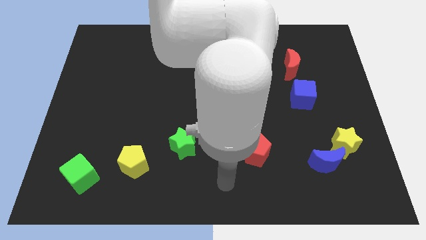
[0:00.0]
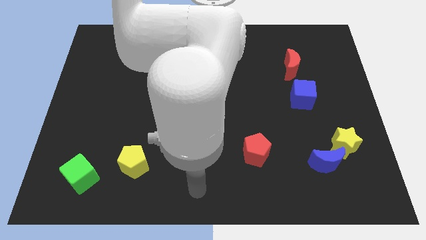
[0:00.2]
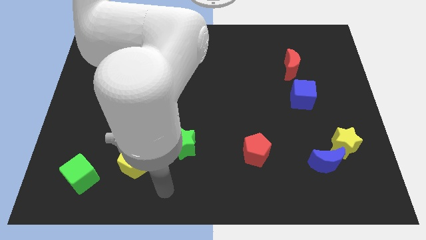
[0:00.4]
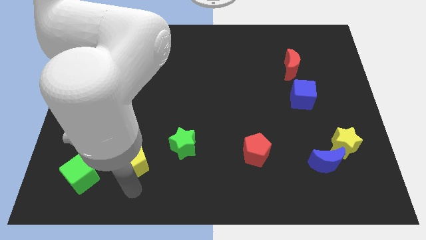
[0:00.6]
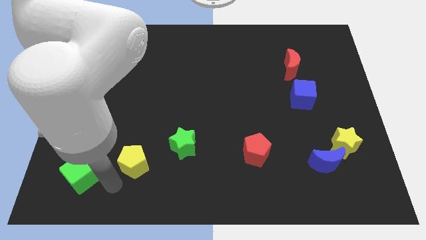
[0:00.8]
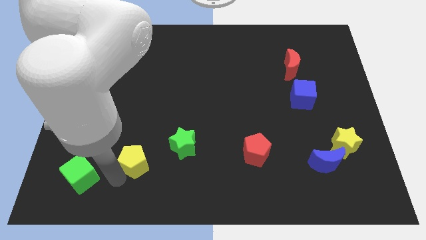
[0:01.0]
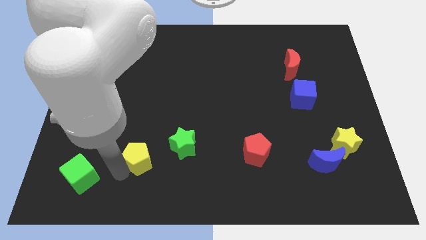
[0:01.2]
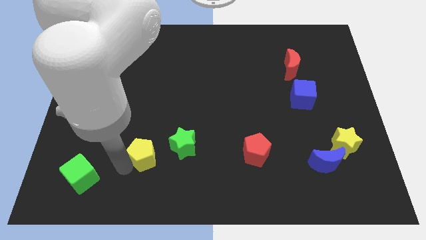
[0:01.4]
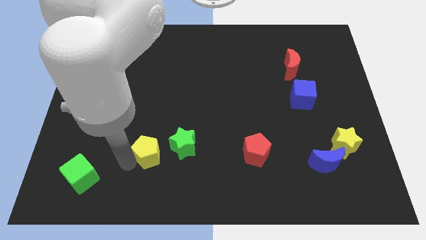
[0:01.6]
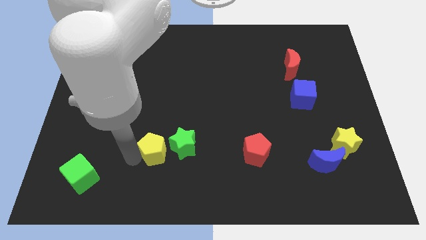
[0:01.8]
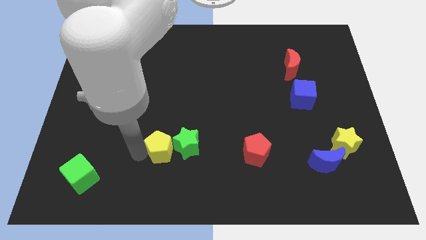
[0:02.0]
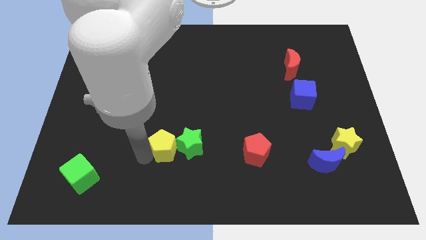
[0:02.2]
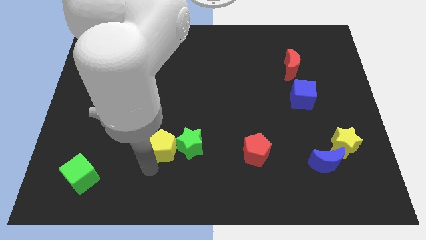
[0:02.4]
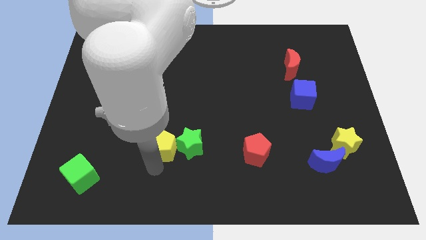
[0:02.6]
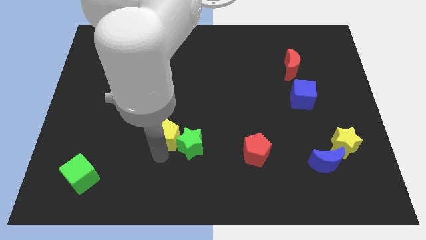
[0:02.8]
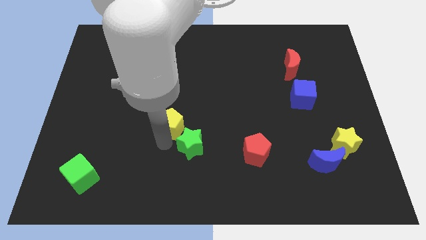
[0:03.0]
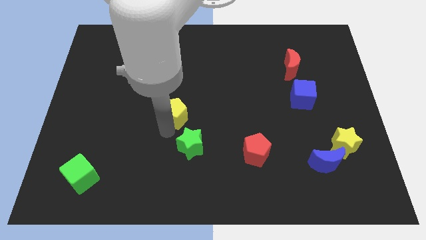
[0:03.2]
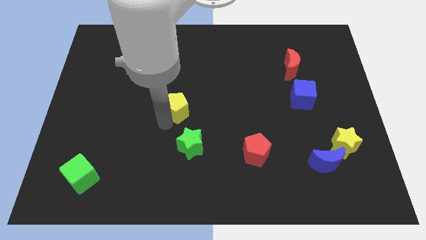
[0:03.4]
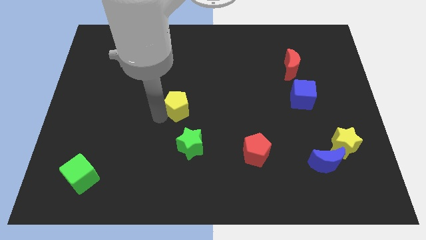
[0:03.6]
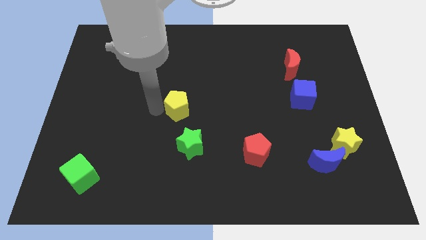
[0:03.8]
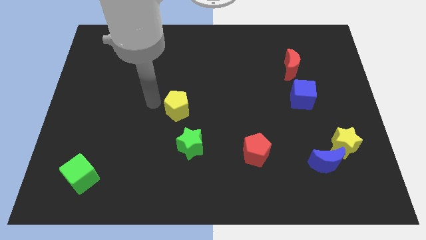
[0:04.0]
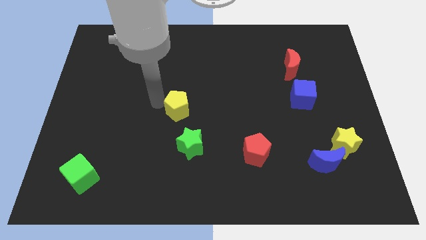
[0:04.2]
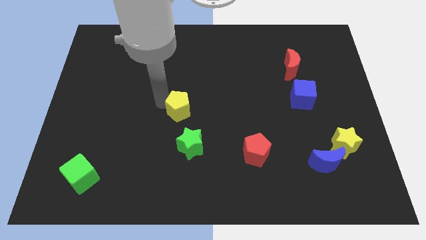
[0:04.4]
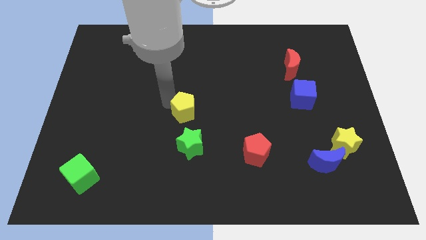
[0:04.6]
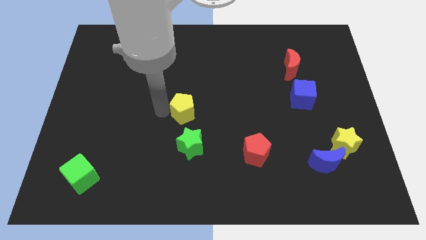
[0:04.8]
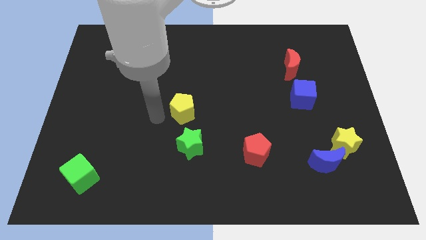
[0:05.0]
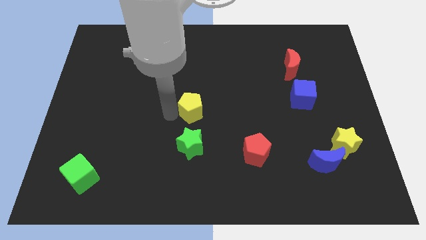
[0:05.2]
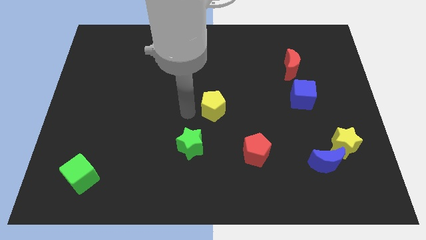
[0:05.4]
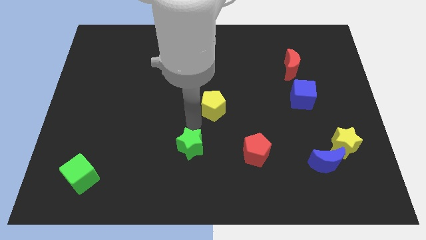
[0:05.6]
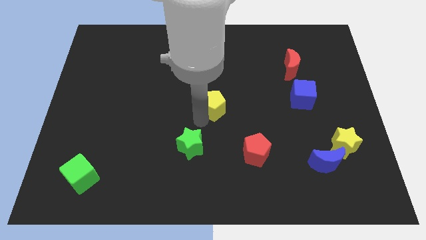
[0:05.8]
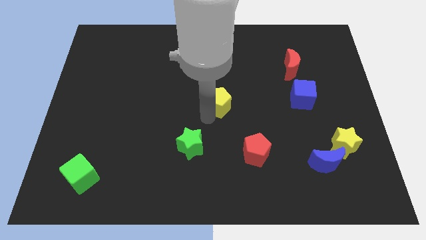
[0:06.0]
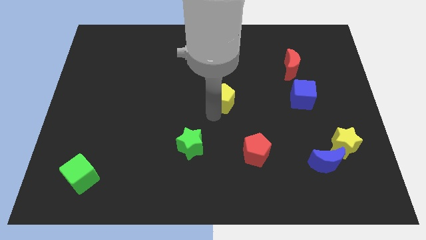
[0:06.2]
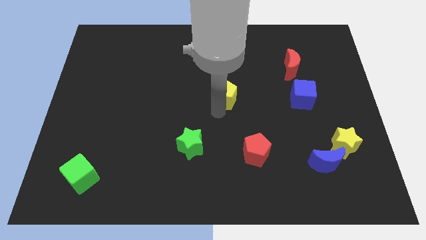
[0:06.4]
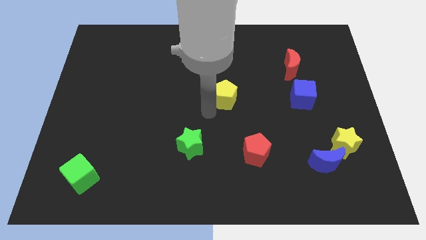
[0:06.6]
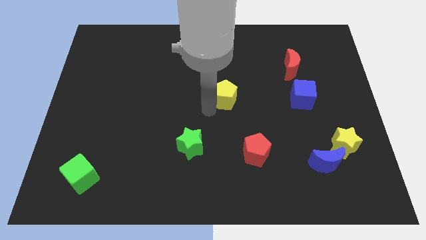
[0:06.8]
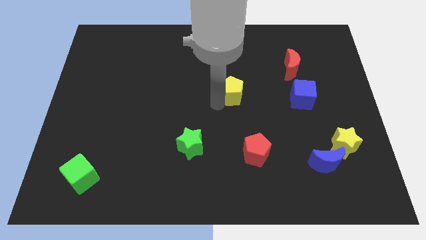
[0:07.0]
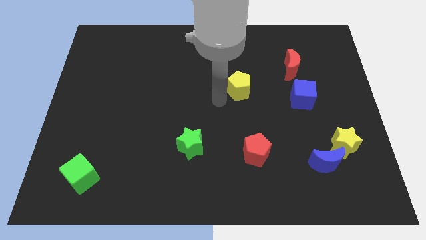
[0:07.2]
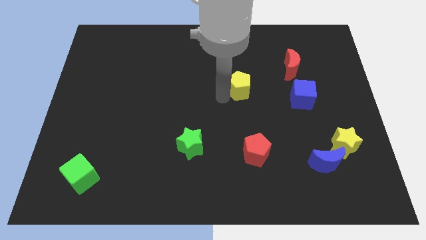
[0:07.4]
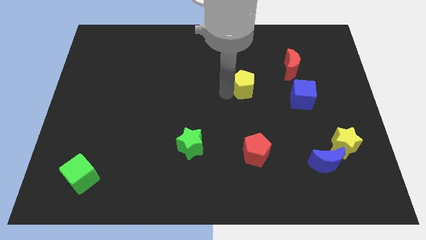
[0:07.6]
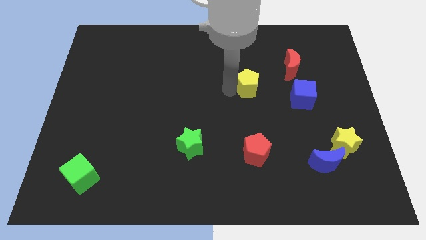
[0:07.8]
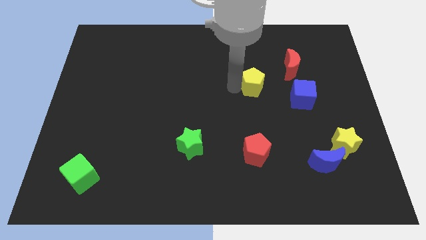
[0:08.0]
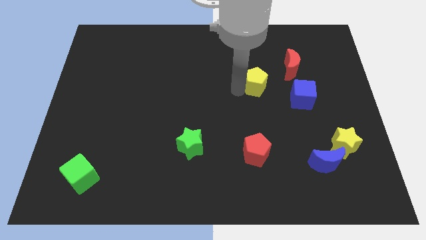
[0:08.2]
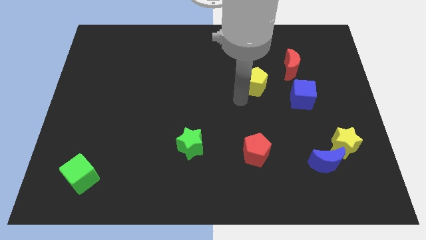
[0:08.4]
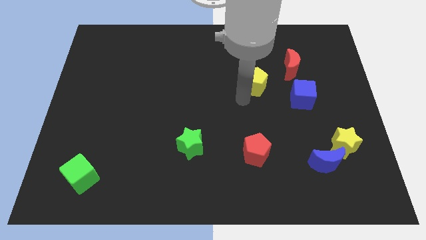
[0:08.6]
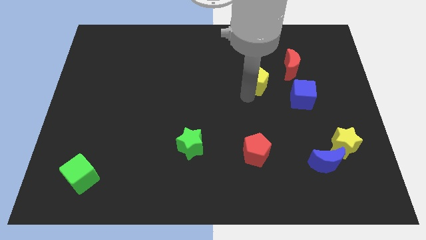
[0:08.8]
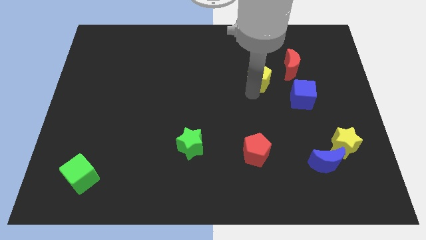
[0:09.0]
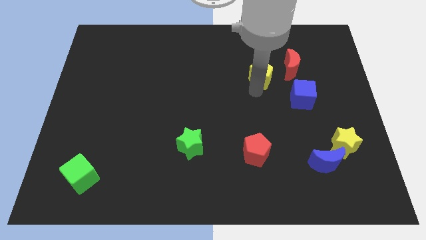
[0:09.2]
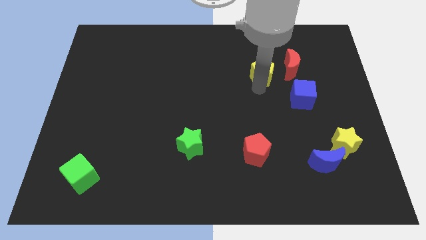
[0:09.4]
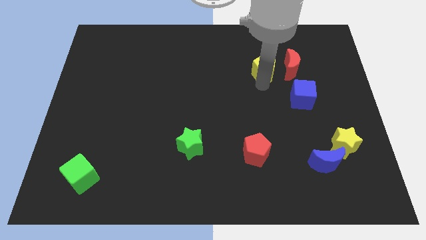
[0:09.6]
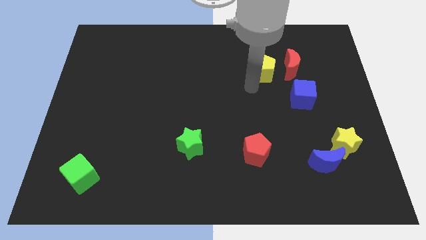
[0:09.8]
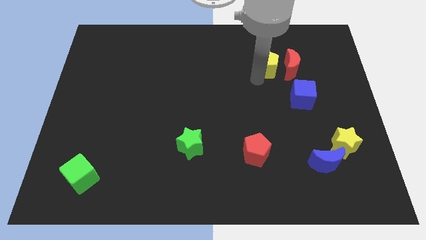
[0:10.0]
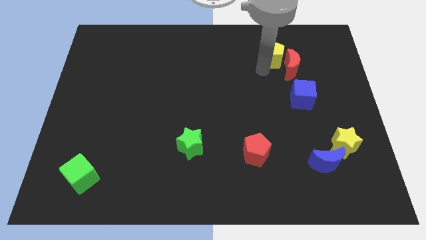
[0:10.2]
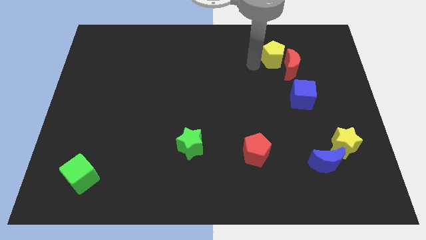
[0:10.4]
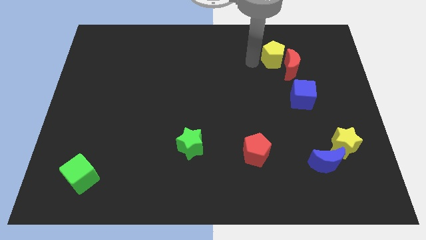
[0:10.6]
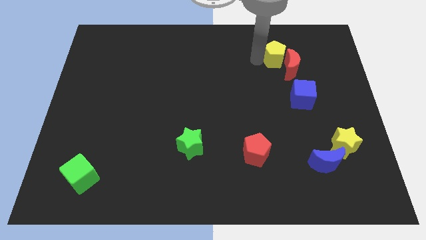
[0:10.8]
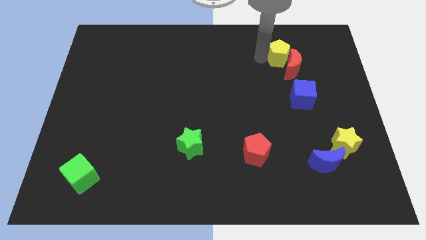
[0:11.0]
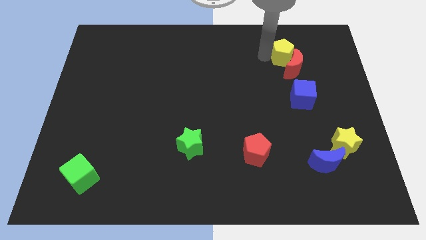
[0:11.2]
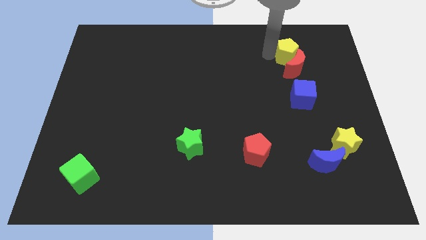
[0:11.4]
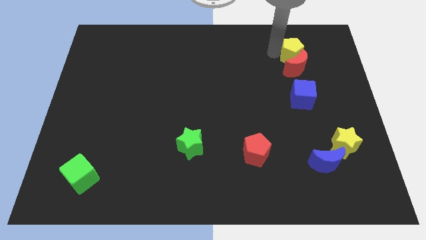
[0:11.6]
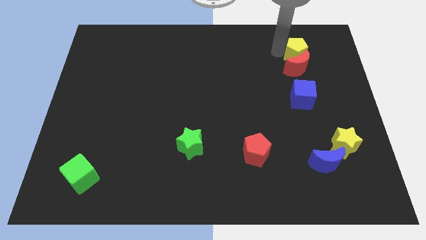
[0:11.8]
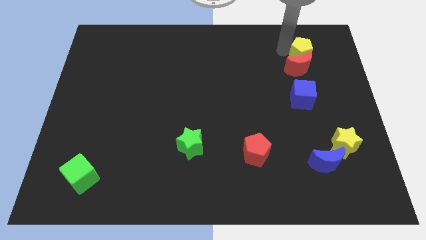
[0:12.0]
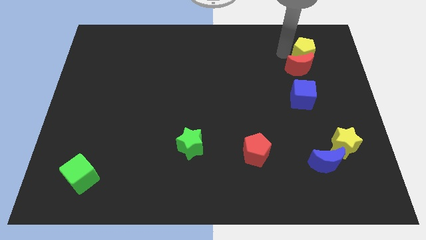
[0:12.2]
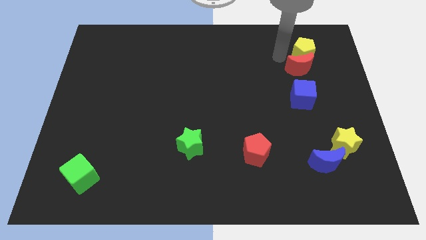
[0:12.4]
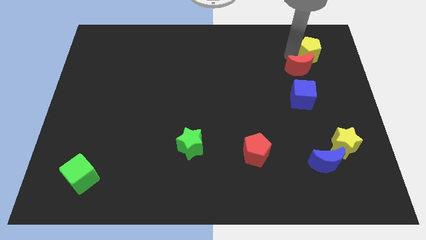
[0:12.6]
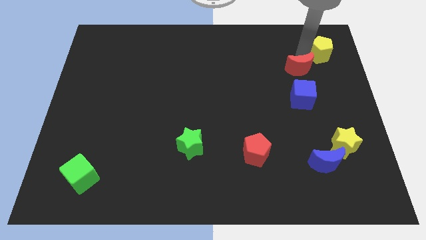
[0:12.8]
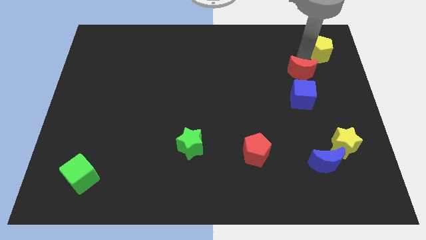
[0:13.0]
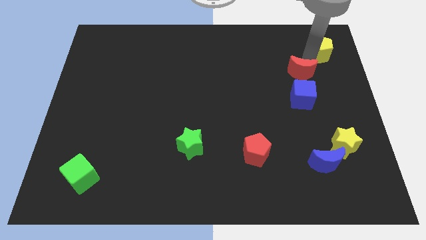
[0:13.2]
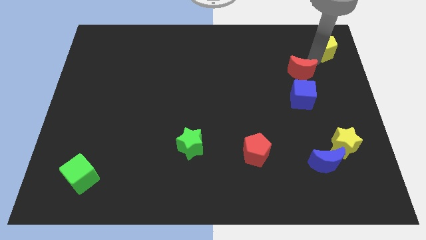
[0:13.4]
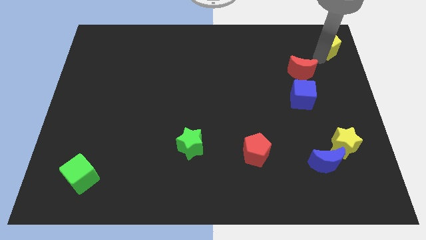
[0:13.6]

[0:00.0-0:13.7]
slide the yellow pentagon to the top right corner

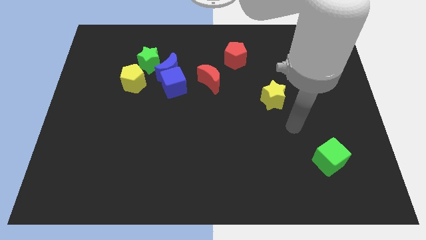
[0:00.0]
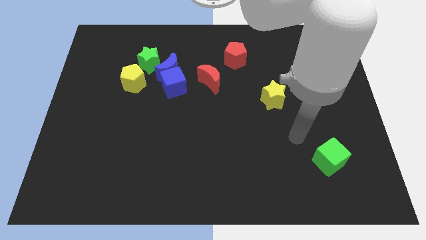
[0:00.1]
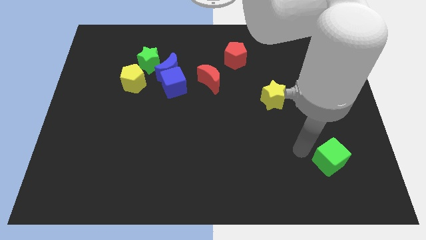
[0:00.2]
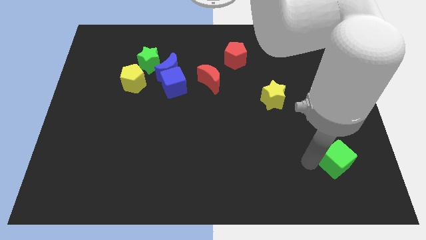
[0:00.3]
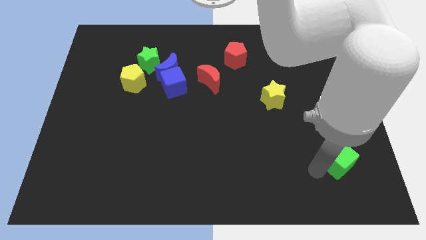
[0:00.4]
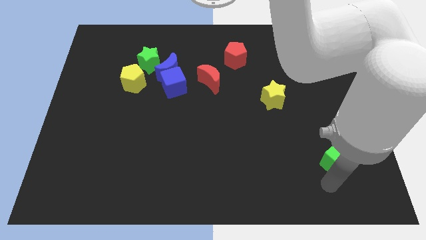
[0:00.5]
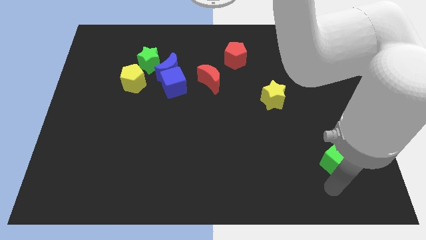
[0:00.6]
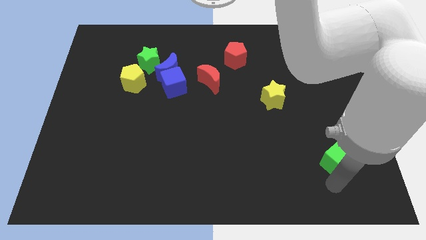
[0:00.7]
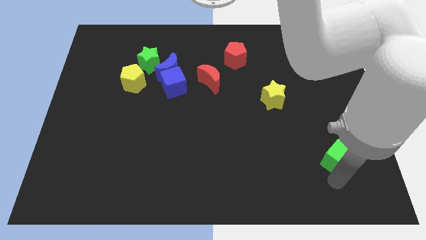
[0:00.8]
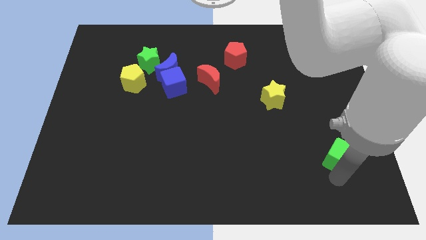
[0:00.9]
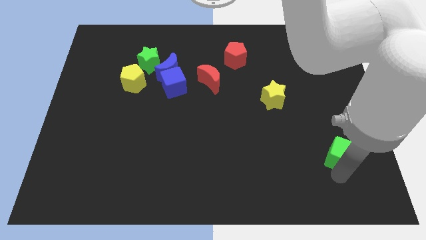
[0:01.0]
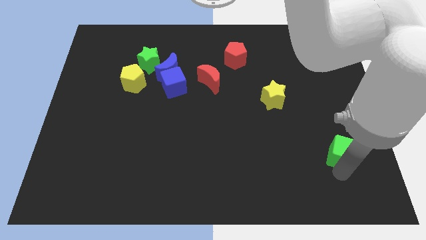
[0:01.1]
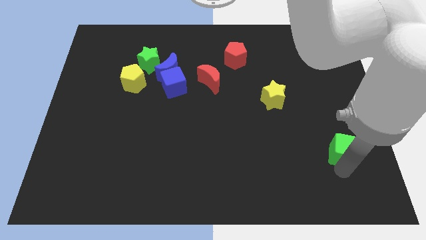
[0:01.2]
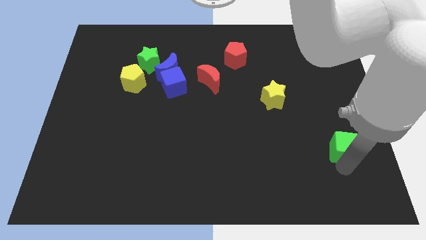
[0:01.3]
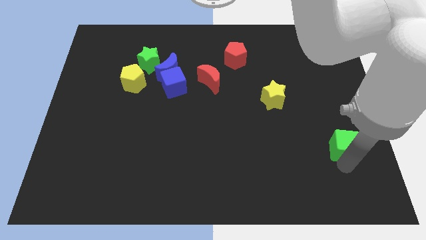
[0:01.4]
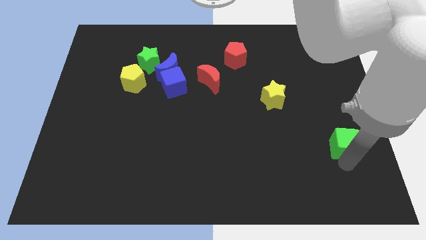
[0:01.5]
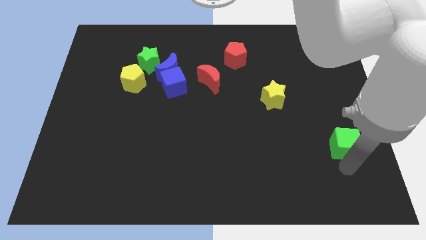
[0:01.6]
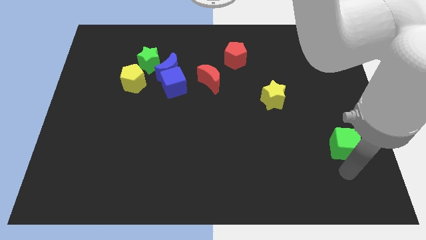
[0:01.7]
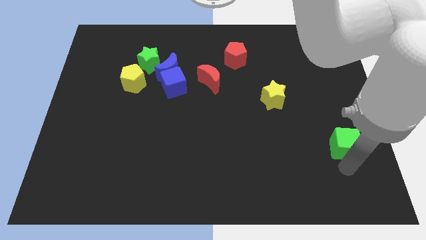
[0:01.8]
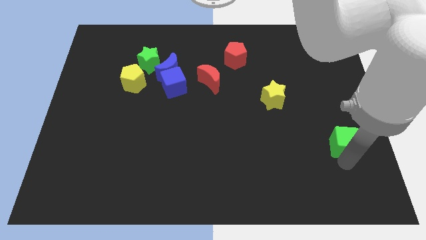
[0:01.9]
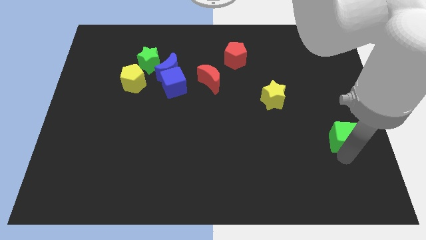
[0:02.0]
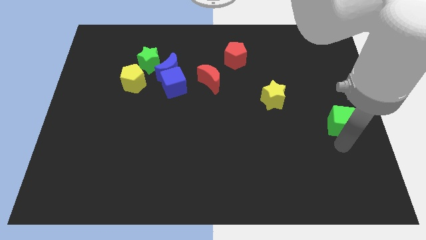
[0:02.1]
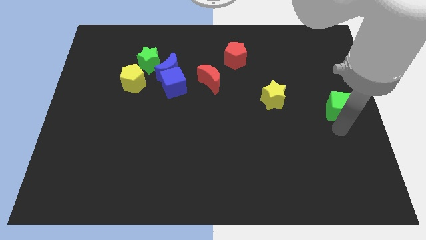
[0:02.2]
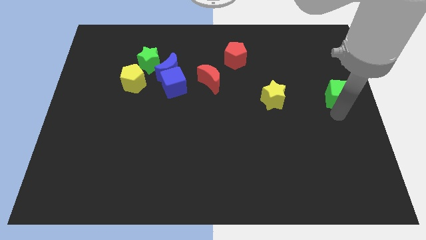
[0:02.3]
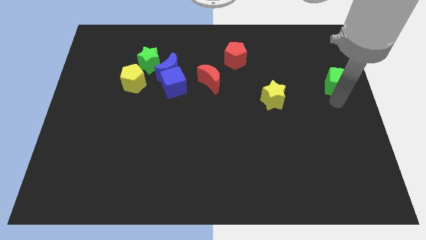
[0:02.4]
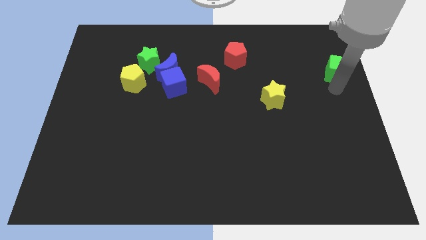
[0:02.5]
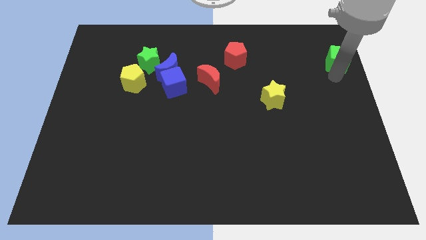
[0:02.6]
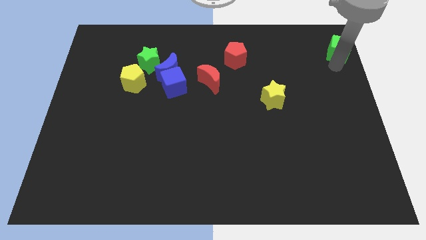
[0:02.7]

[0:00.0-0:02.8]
push the green cube to the top right corner
